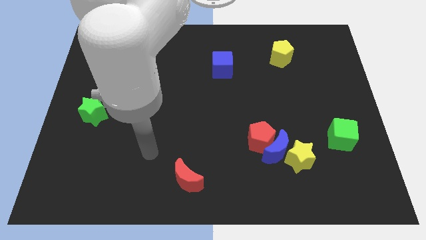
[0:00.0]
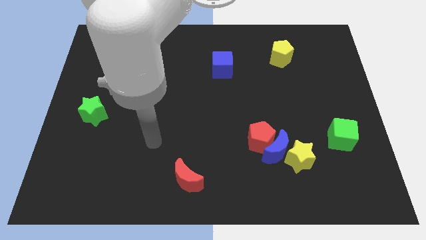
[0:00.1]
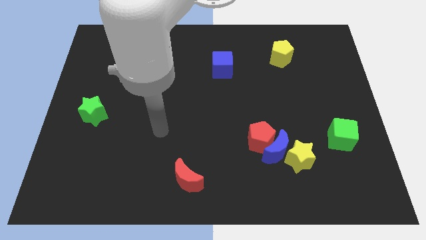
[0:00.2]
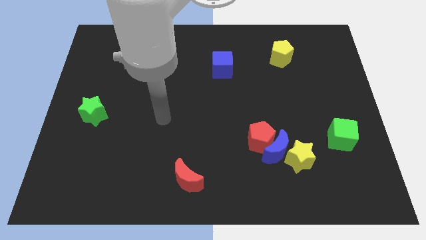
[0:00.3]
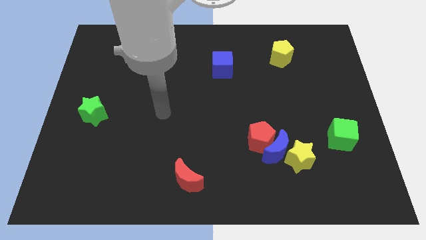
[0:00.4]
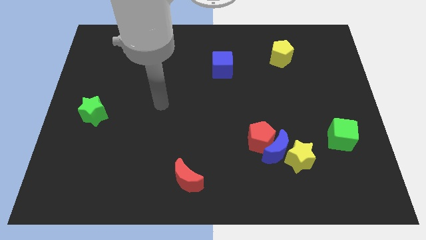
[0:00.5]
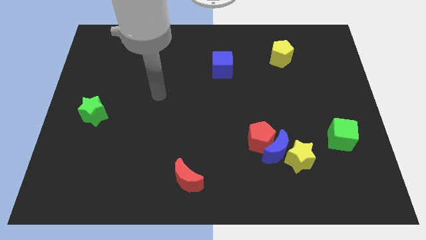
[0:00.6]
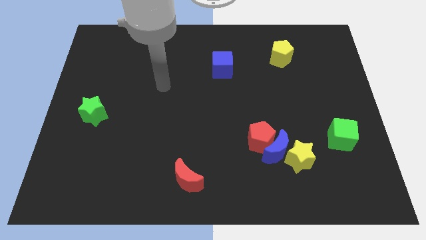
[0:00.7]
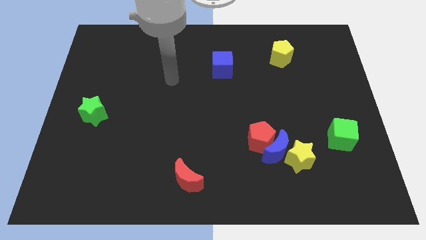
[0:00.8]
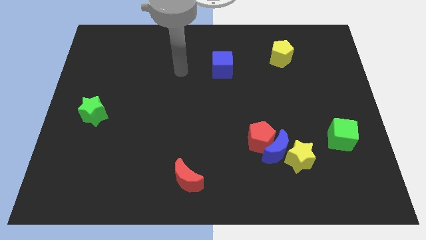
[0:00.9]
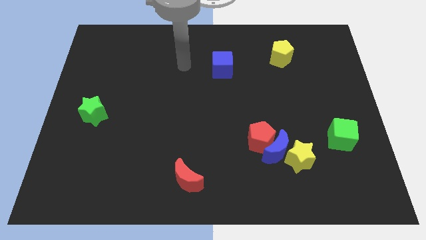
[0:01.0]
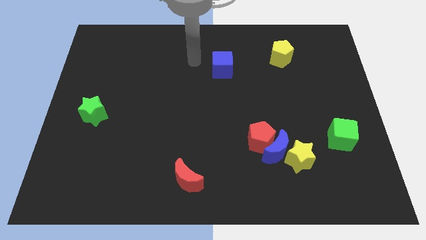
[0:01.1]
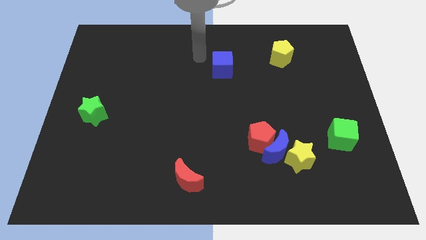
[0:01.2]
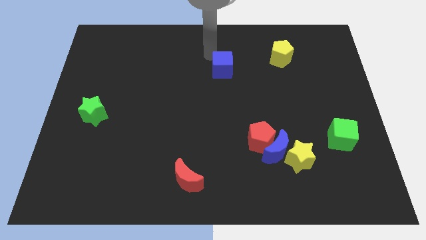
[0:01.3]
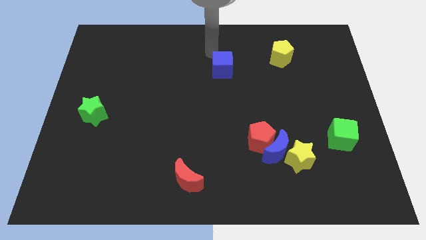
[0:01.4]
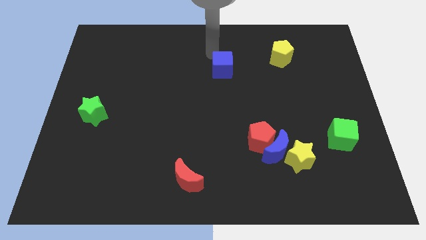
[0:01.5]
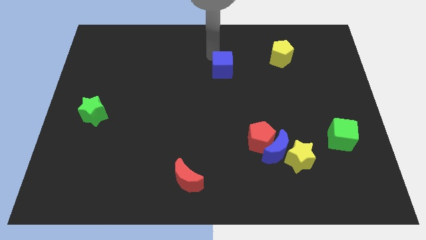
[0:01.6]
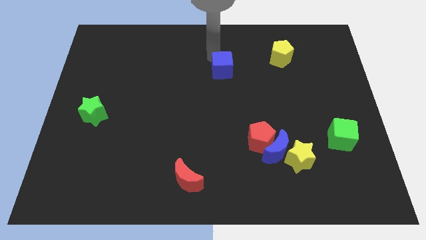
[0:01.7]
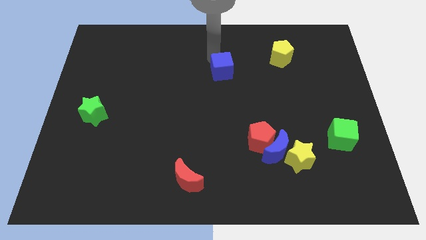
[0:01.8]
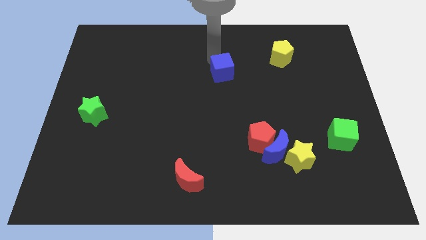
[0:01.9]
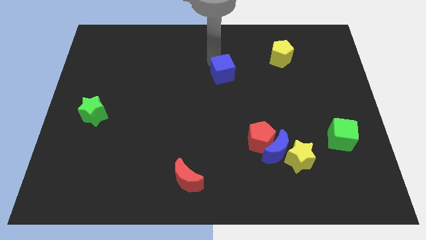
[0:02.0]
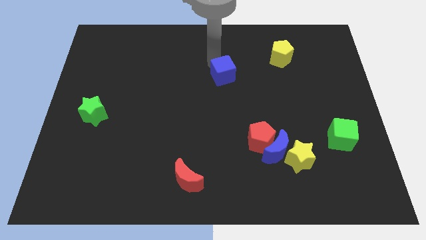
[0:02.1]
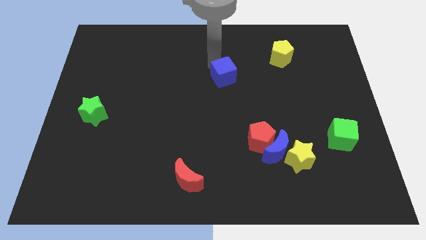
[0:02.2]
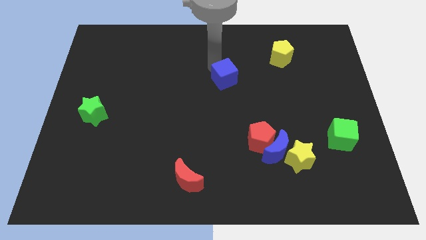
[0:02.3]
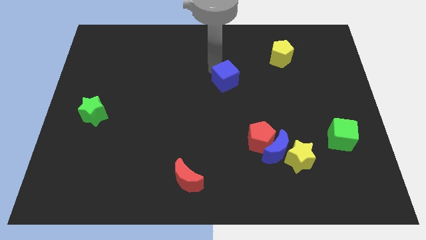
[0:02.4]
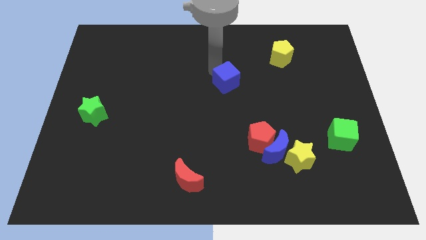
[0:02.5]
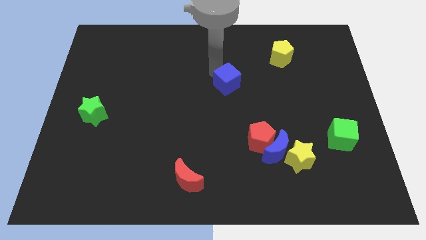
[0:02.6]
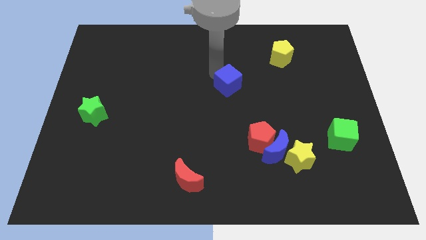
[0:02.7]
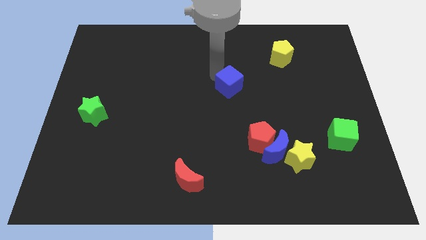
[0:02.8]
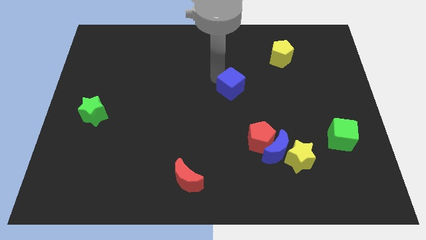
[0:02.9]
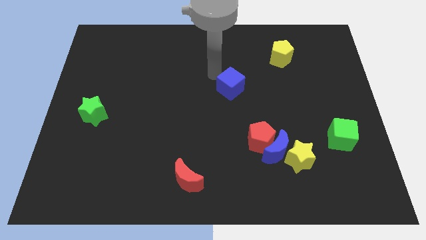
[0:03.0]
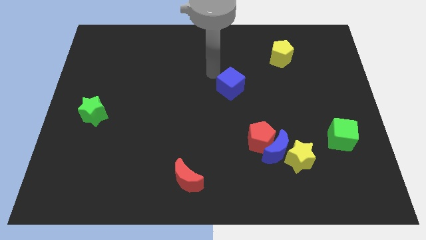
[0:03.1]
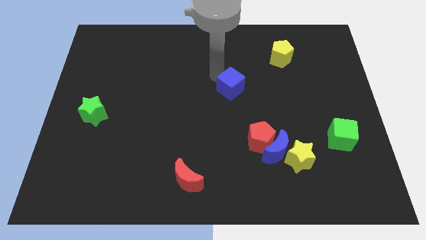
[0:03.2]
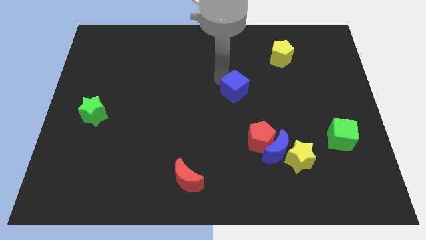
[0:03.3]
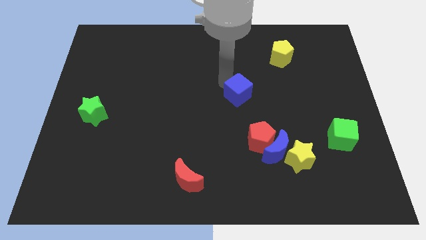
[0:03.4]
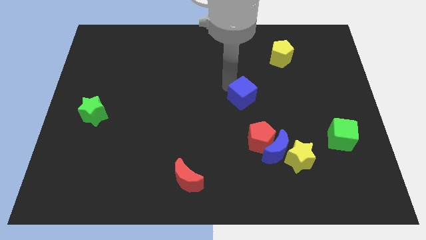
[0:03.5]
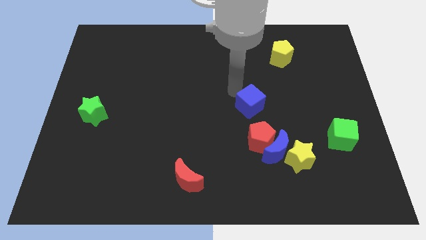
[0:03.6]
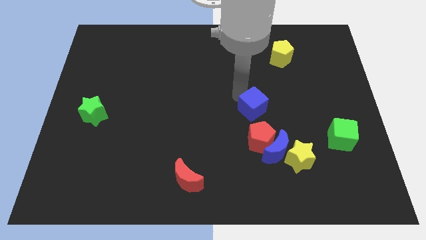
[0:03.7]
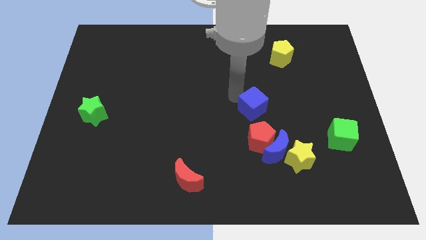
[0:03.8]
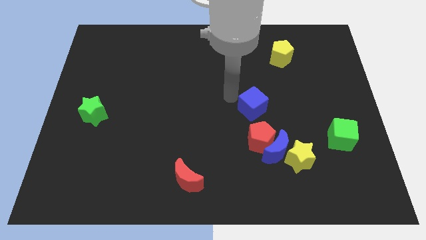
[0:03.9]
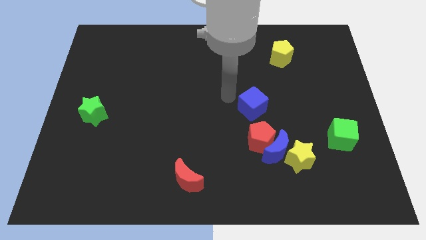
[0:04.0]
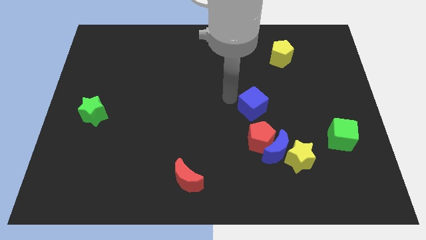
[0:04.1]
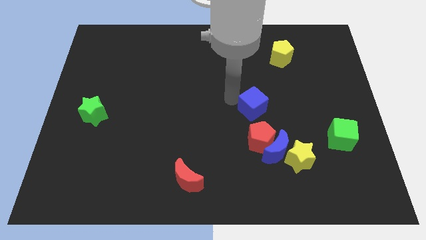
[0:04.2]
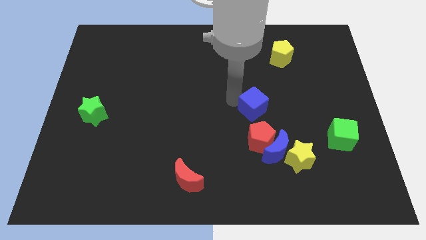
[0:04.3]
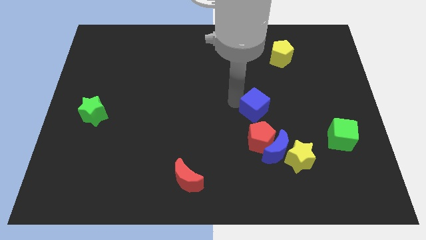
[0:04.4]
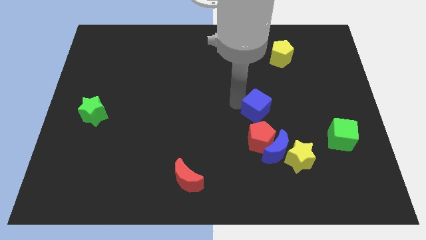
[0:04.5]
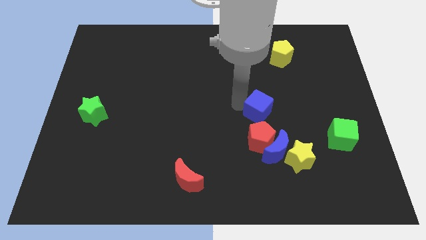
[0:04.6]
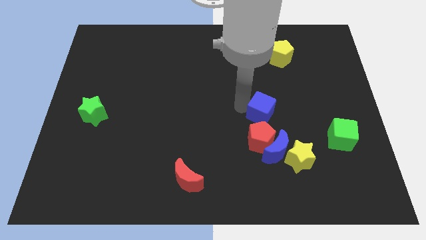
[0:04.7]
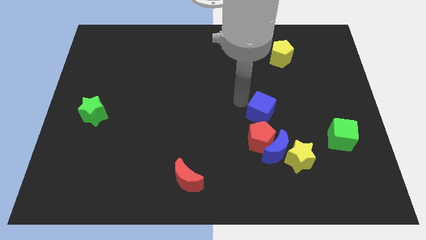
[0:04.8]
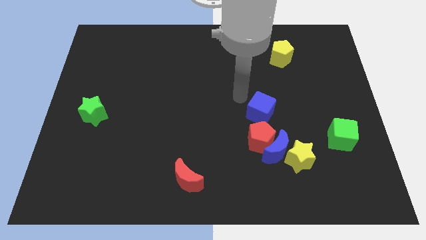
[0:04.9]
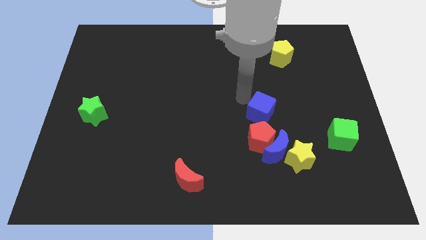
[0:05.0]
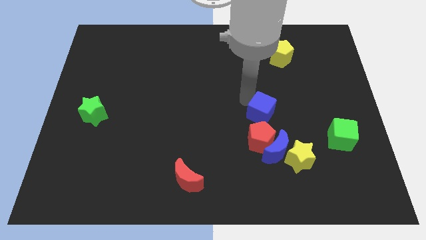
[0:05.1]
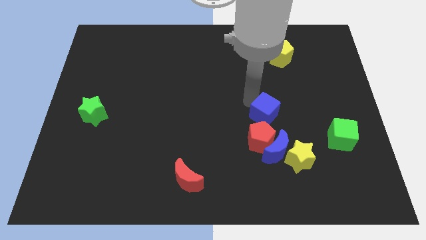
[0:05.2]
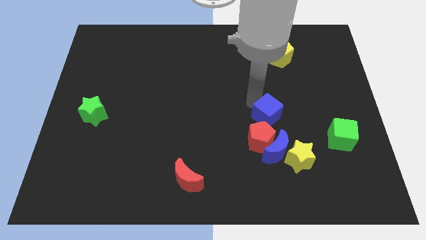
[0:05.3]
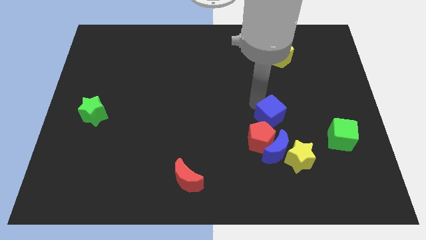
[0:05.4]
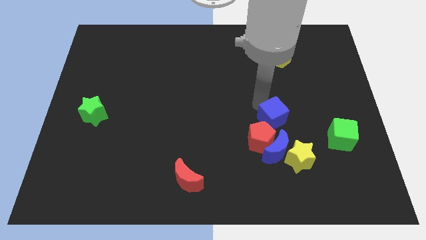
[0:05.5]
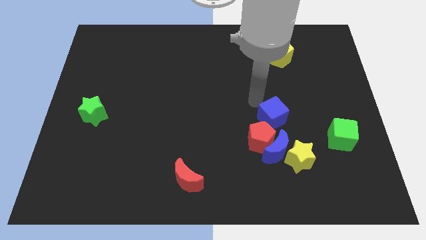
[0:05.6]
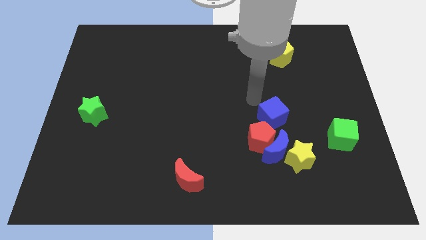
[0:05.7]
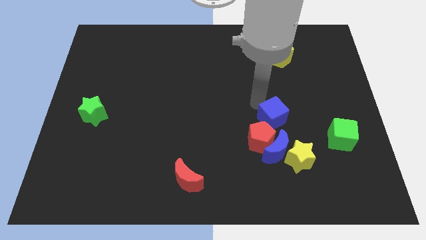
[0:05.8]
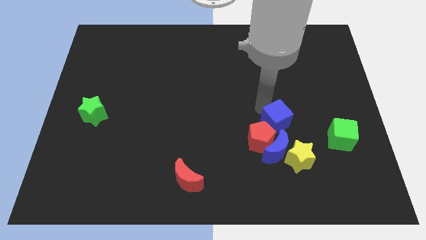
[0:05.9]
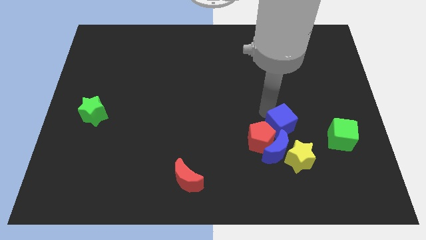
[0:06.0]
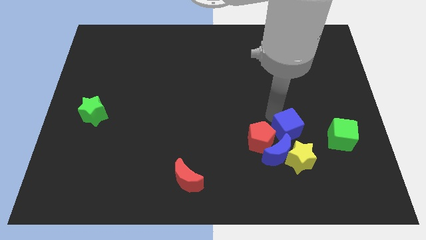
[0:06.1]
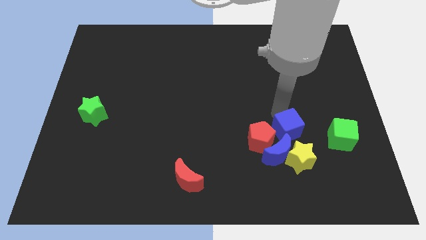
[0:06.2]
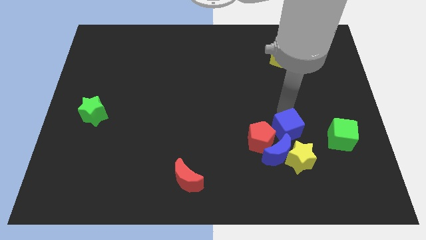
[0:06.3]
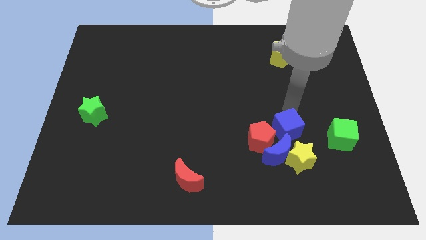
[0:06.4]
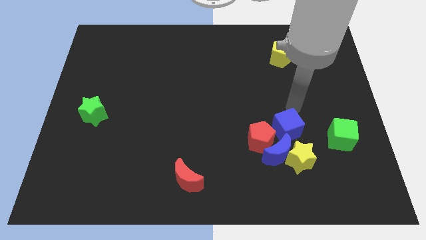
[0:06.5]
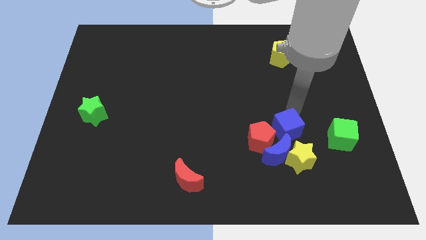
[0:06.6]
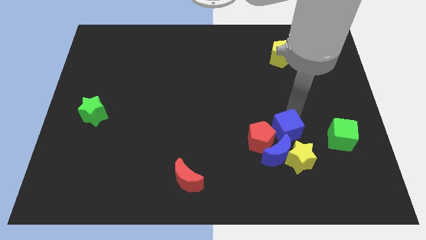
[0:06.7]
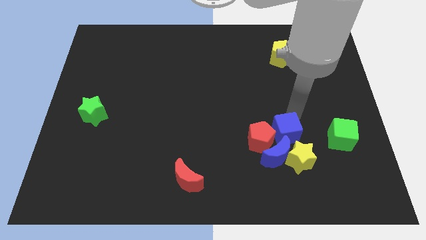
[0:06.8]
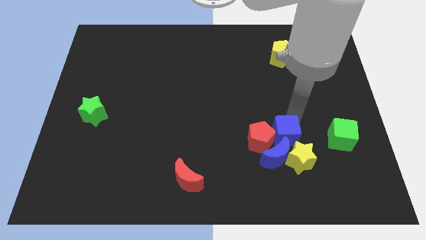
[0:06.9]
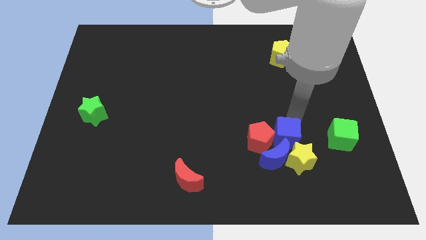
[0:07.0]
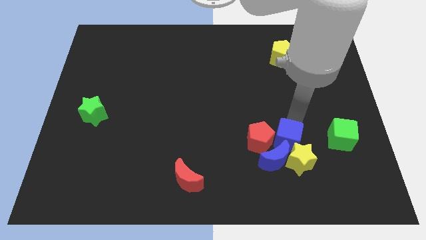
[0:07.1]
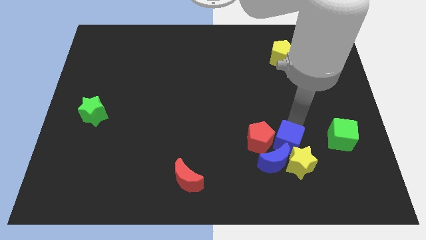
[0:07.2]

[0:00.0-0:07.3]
put the blue cube towards the blue moon
